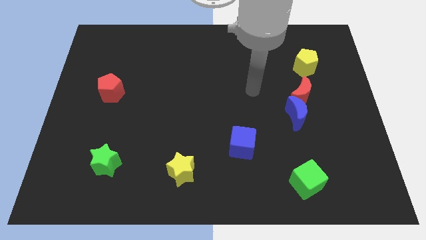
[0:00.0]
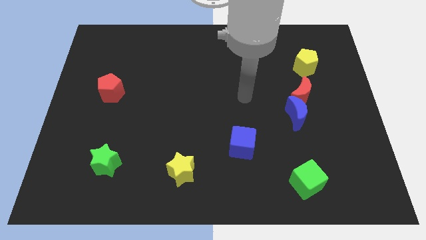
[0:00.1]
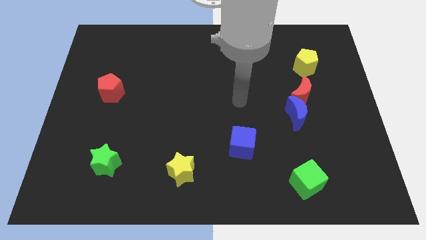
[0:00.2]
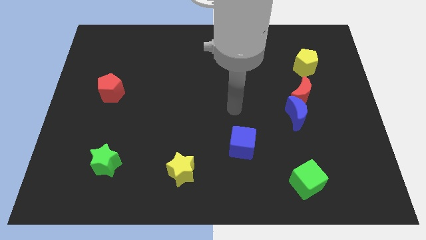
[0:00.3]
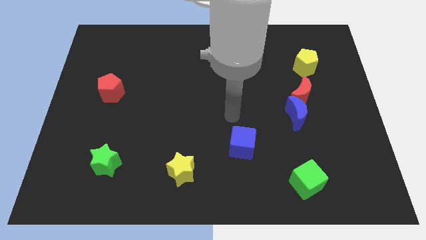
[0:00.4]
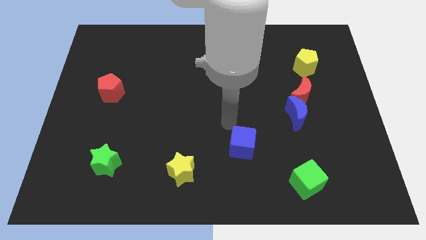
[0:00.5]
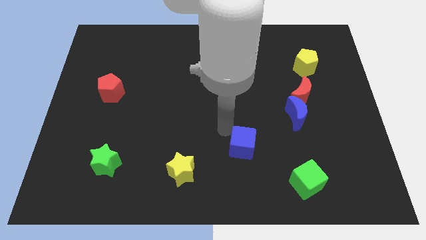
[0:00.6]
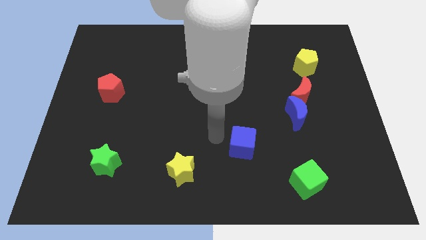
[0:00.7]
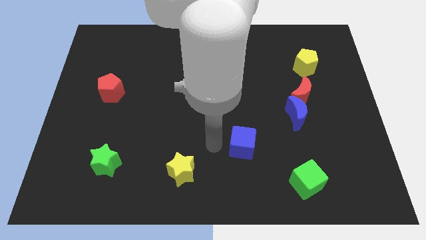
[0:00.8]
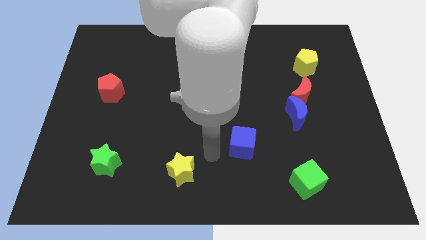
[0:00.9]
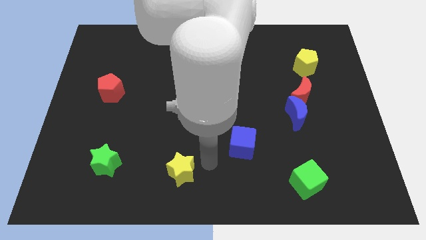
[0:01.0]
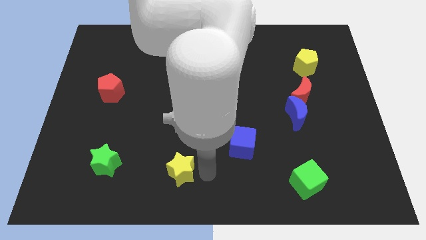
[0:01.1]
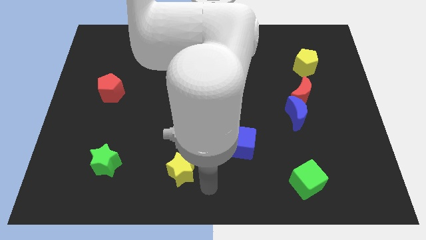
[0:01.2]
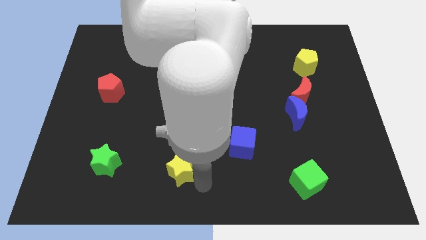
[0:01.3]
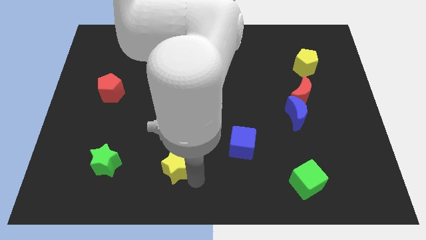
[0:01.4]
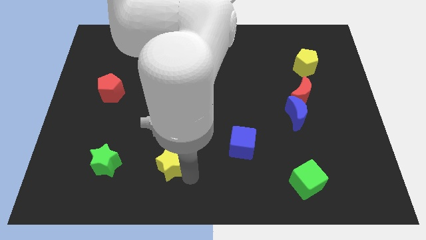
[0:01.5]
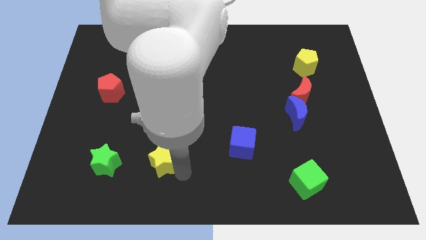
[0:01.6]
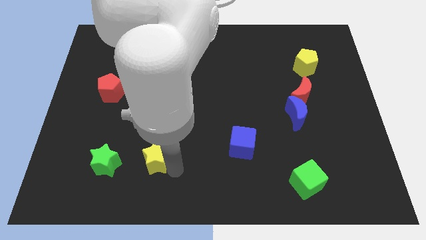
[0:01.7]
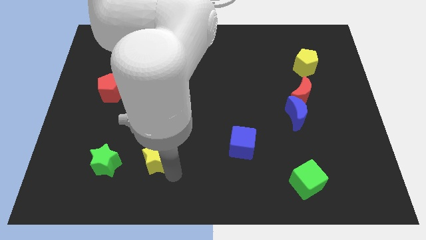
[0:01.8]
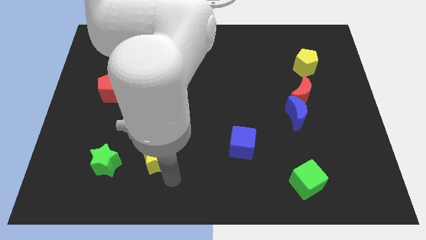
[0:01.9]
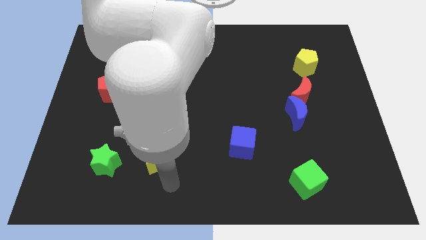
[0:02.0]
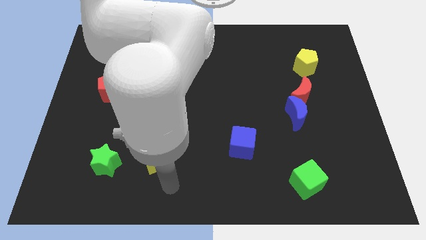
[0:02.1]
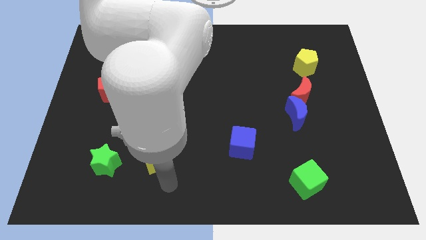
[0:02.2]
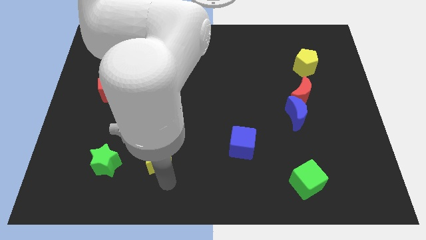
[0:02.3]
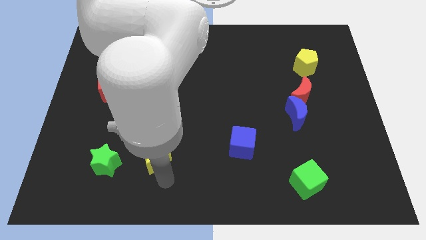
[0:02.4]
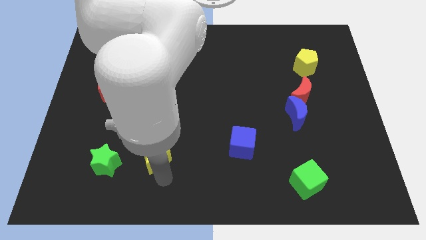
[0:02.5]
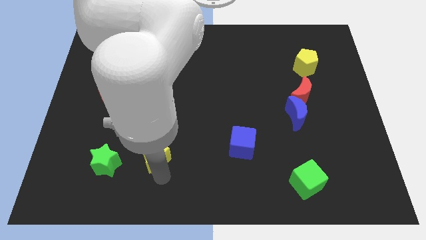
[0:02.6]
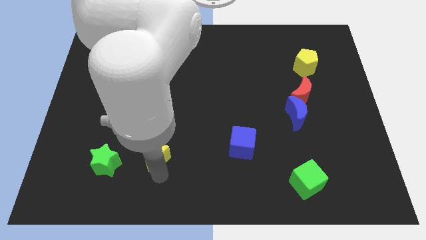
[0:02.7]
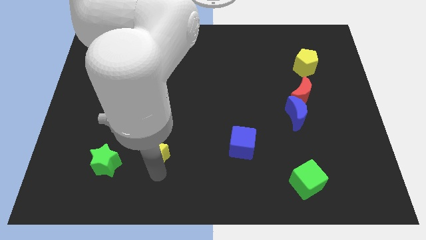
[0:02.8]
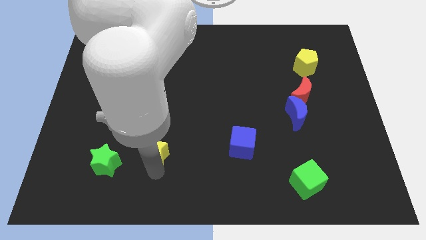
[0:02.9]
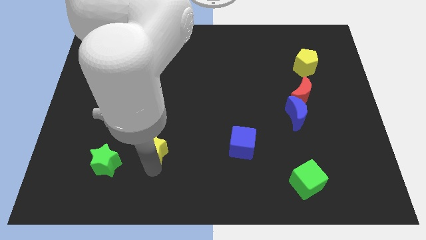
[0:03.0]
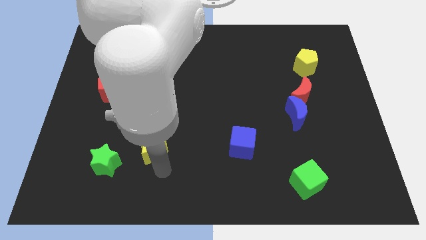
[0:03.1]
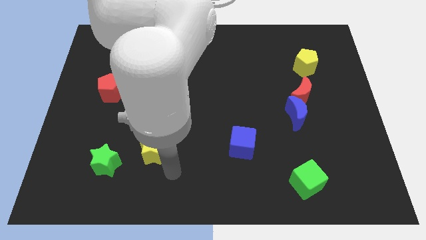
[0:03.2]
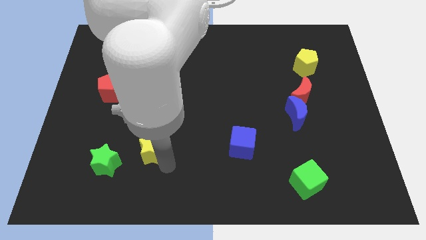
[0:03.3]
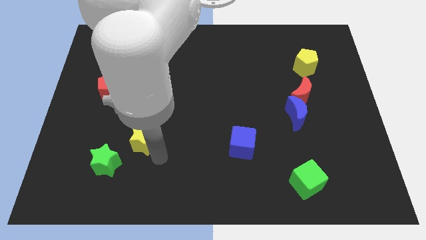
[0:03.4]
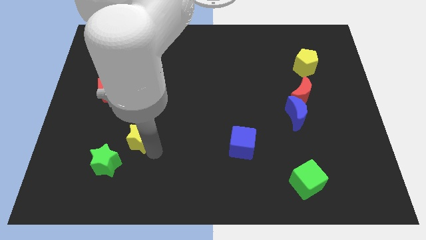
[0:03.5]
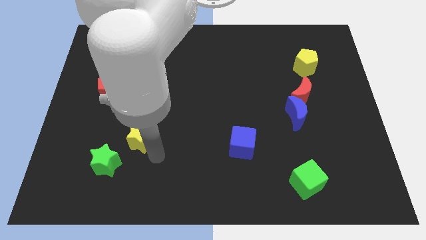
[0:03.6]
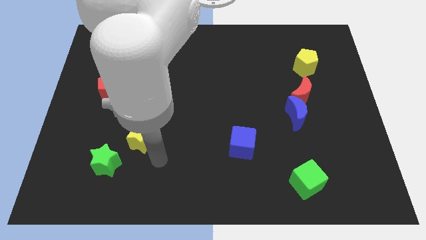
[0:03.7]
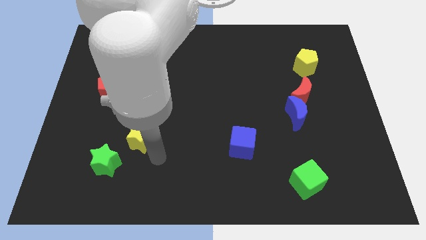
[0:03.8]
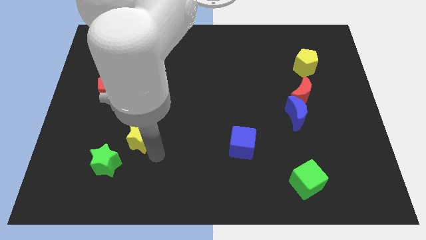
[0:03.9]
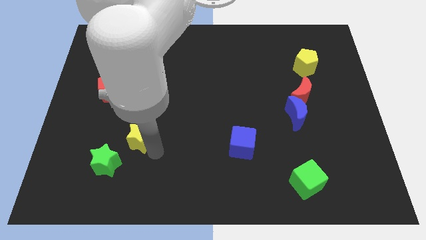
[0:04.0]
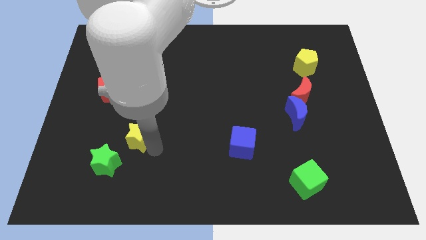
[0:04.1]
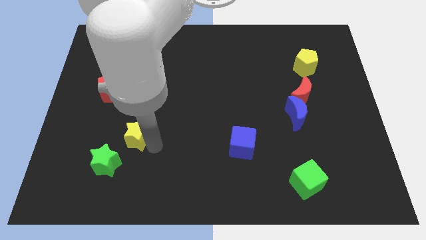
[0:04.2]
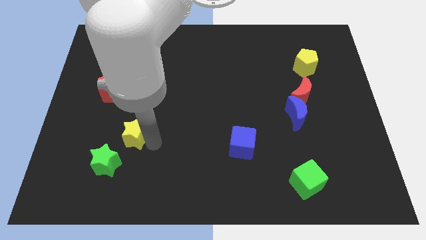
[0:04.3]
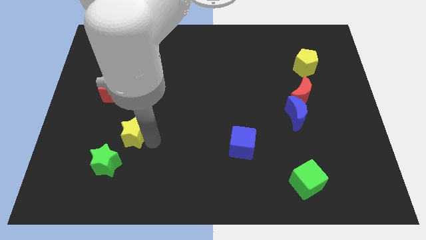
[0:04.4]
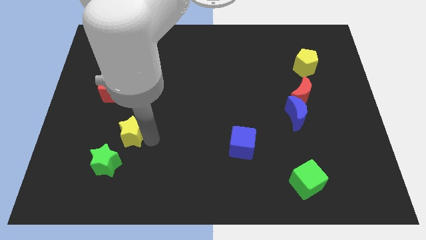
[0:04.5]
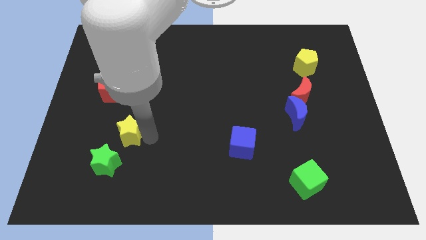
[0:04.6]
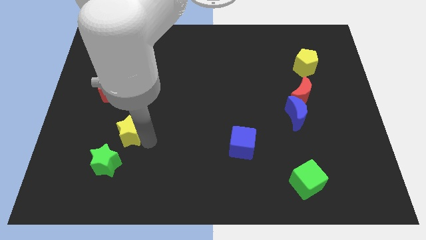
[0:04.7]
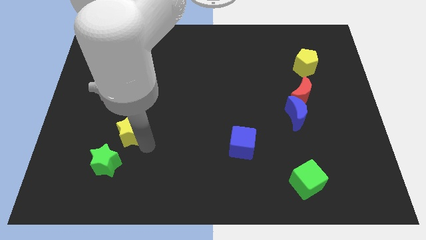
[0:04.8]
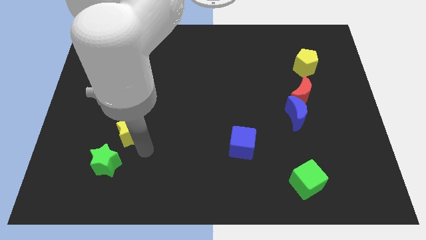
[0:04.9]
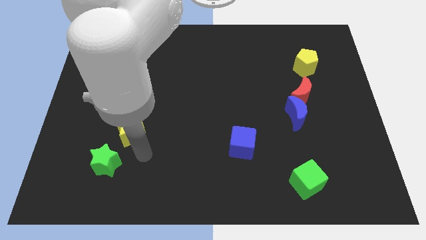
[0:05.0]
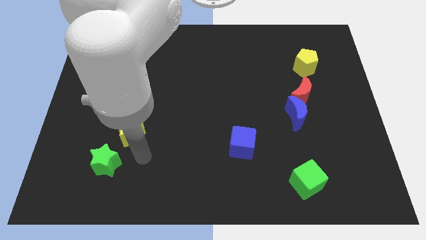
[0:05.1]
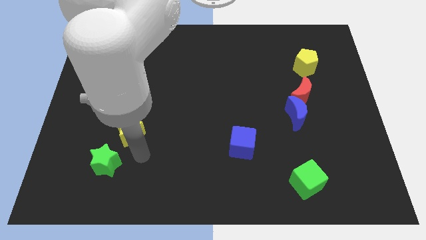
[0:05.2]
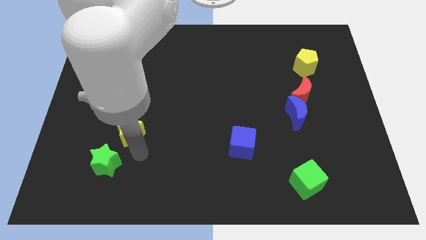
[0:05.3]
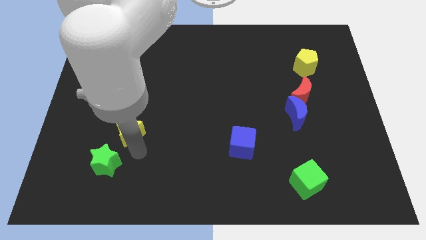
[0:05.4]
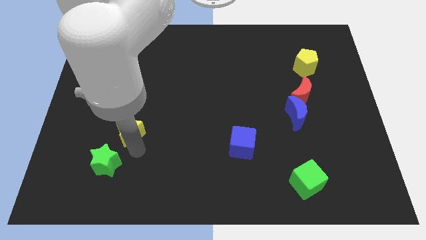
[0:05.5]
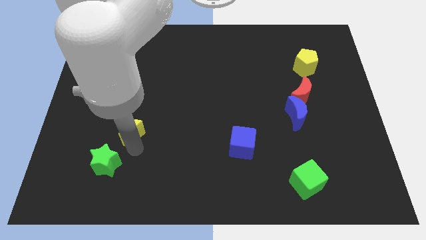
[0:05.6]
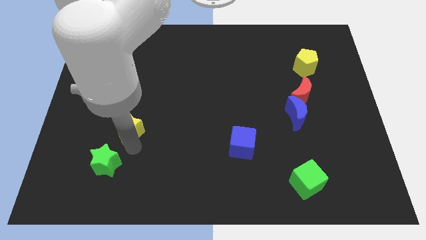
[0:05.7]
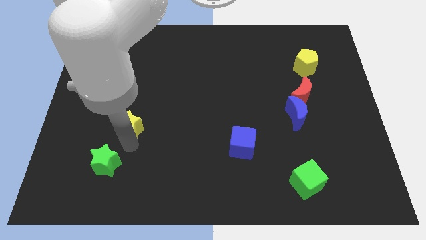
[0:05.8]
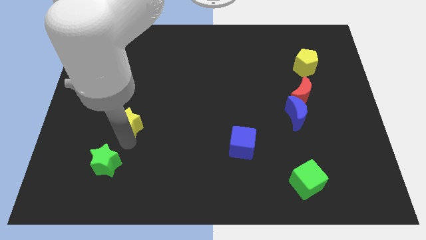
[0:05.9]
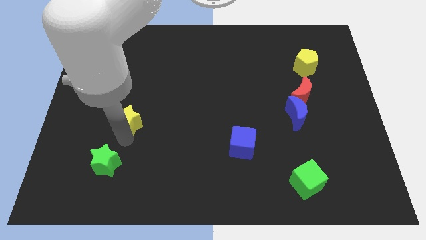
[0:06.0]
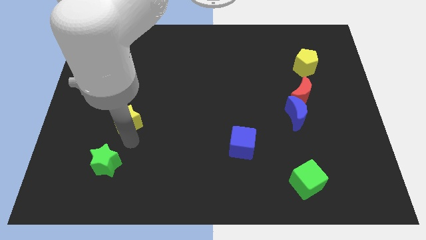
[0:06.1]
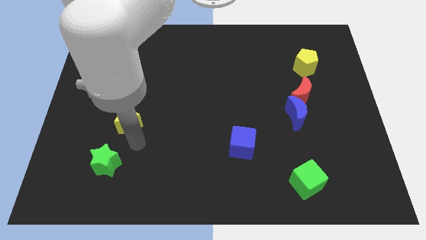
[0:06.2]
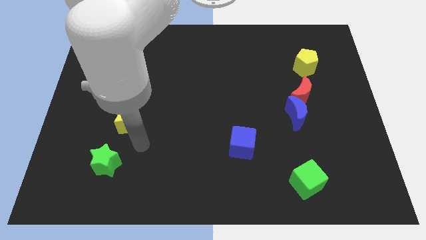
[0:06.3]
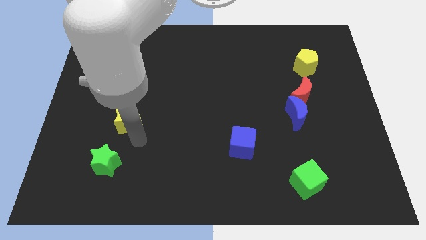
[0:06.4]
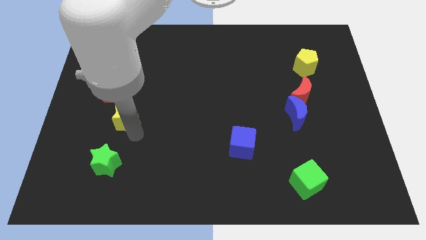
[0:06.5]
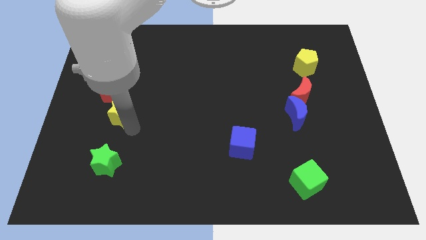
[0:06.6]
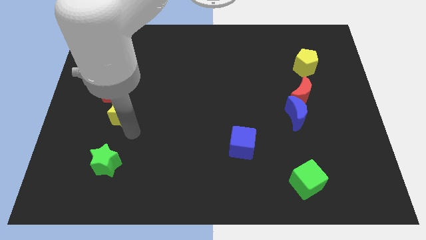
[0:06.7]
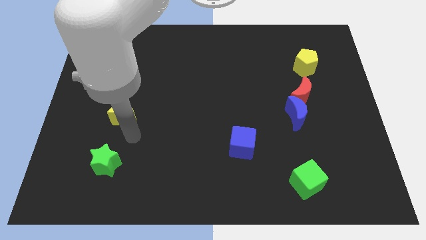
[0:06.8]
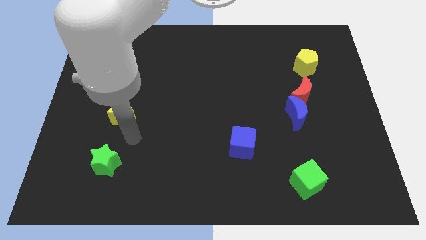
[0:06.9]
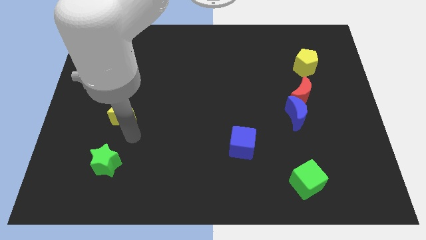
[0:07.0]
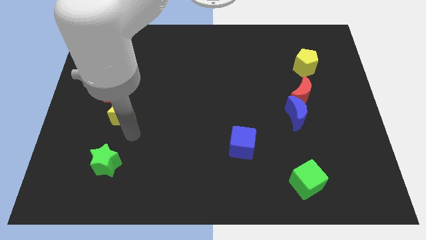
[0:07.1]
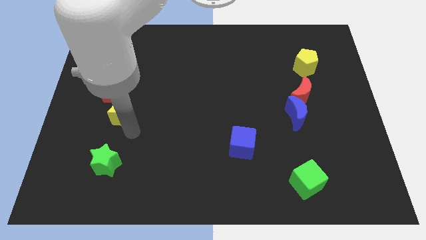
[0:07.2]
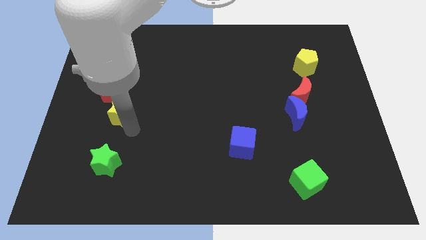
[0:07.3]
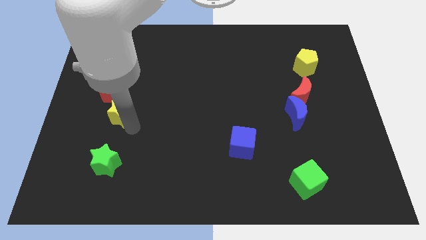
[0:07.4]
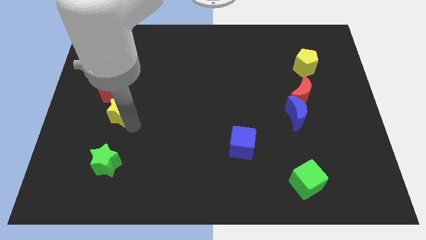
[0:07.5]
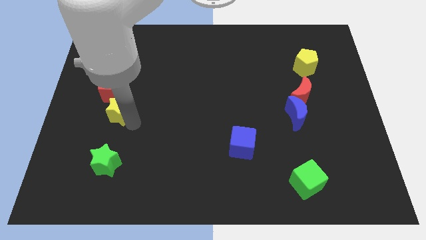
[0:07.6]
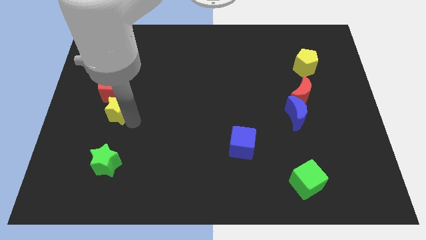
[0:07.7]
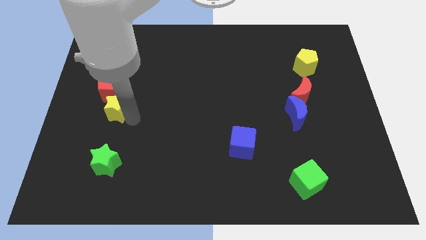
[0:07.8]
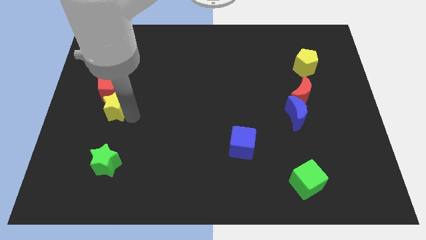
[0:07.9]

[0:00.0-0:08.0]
push the yellow star close to the red pentagon
